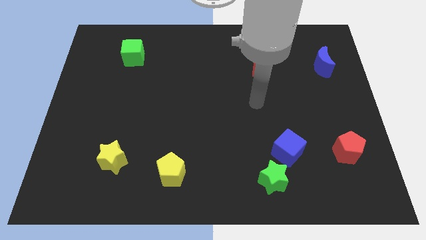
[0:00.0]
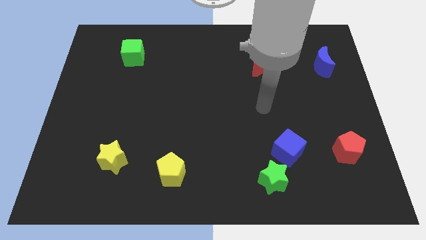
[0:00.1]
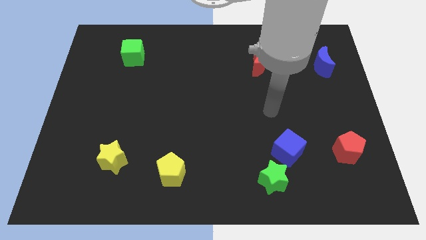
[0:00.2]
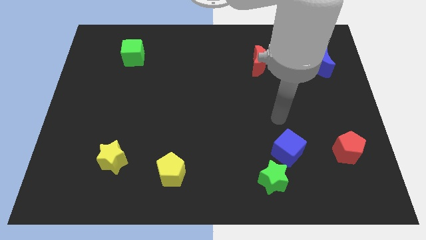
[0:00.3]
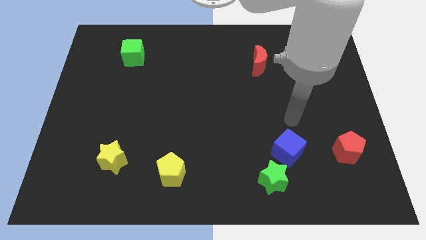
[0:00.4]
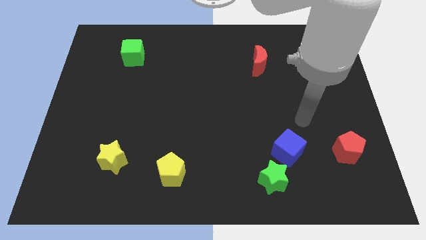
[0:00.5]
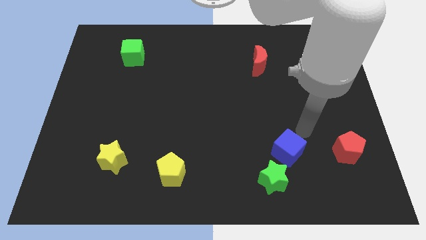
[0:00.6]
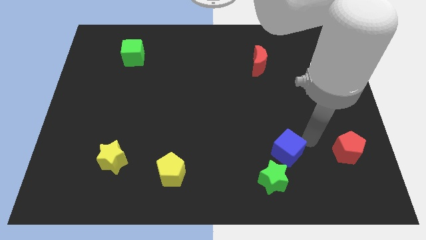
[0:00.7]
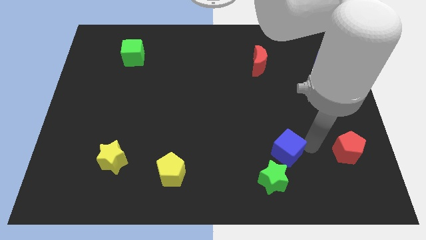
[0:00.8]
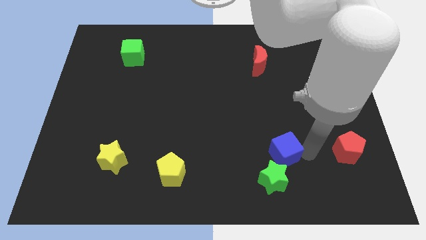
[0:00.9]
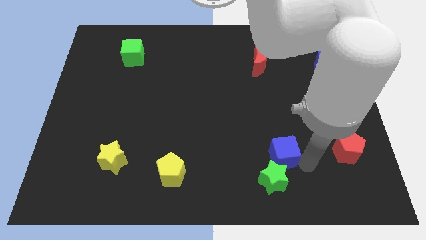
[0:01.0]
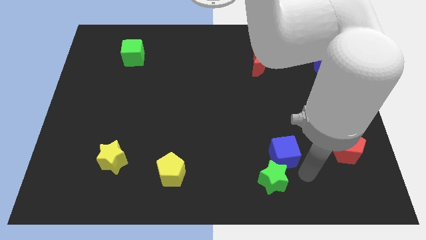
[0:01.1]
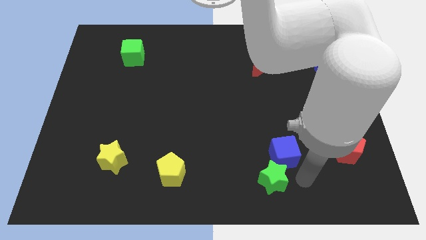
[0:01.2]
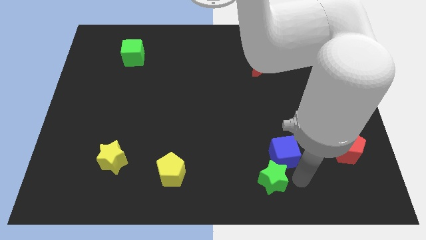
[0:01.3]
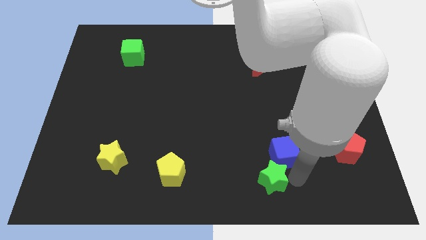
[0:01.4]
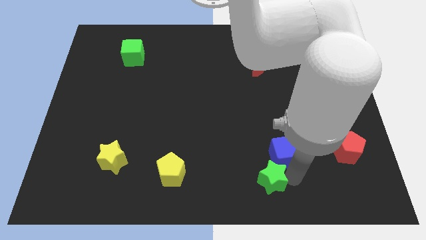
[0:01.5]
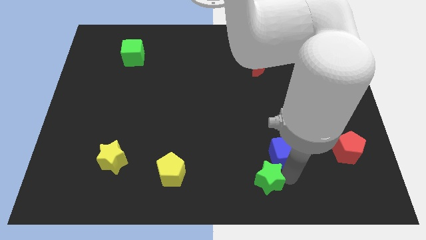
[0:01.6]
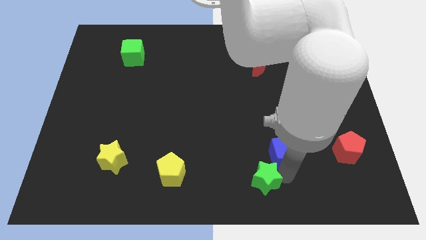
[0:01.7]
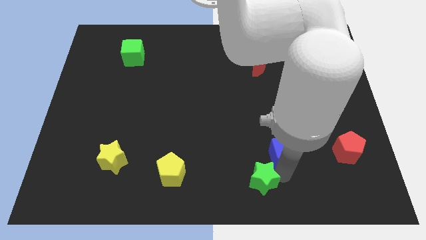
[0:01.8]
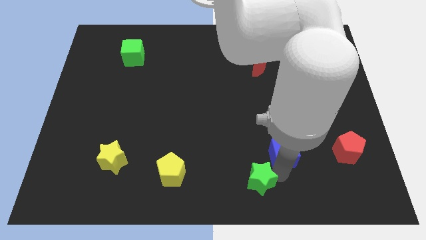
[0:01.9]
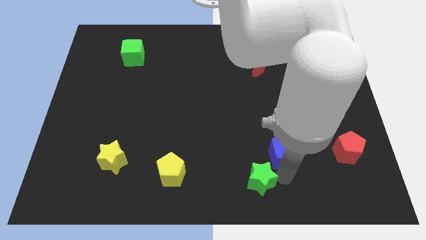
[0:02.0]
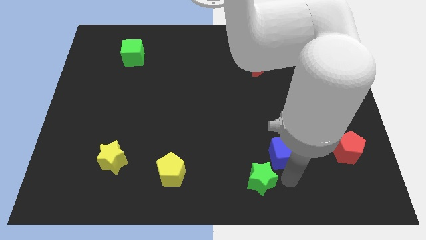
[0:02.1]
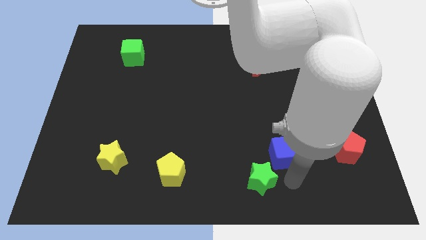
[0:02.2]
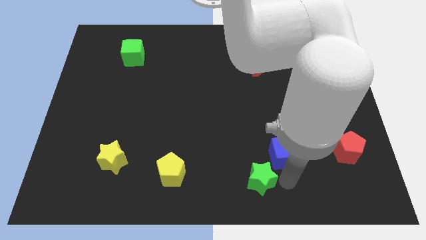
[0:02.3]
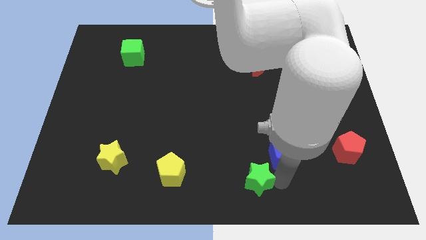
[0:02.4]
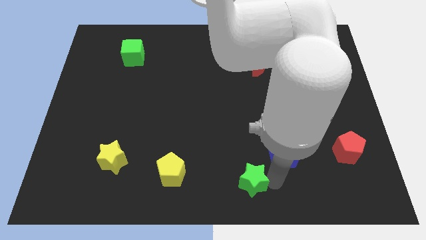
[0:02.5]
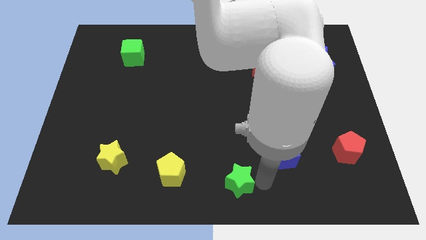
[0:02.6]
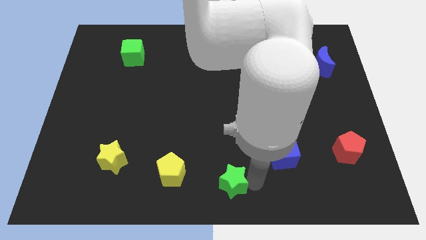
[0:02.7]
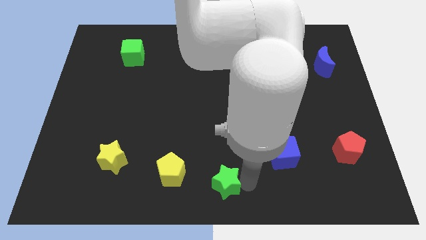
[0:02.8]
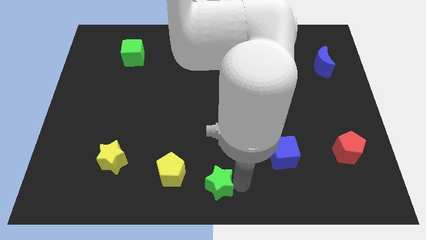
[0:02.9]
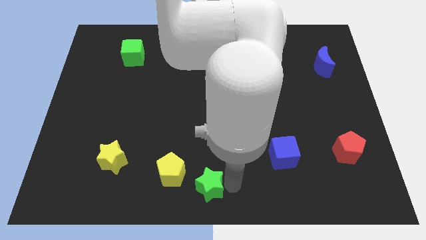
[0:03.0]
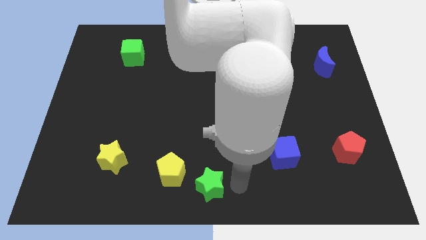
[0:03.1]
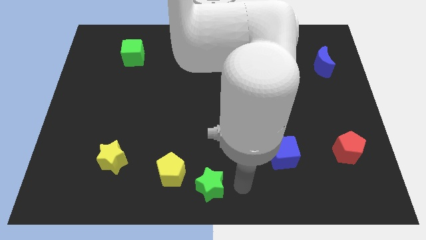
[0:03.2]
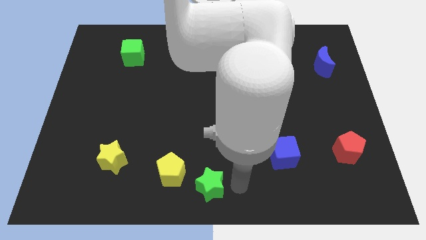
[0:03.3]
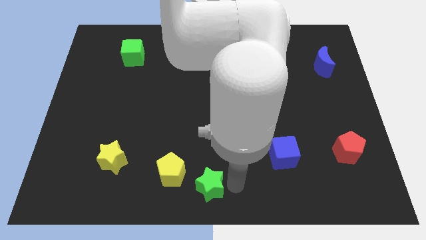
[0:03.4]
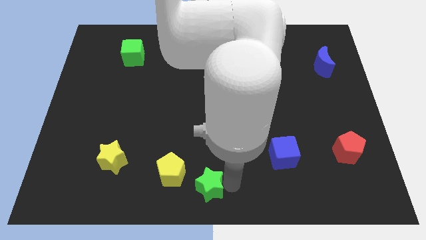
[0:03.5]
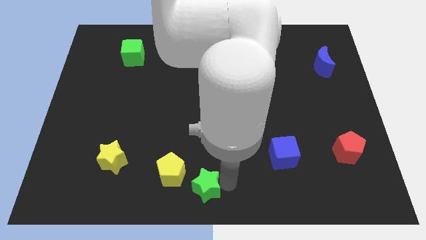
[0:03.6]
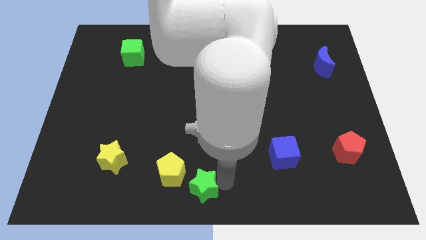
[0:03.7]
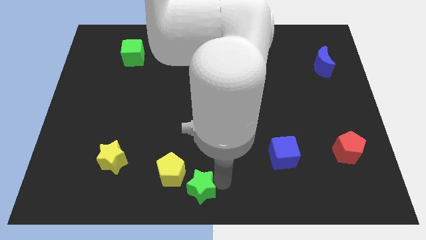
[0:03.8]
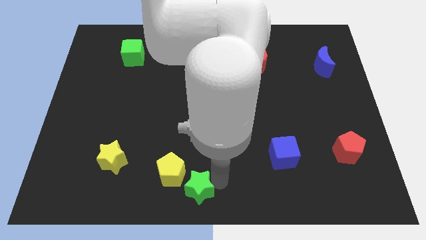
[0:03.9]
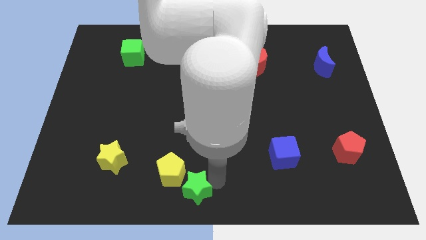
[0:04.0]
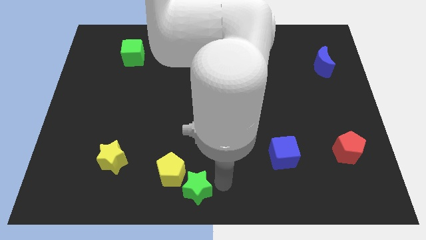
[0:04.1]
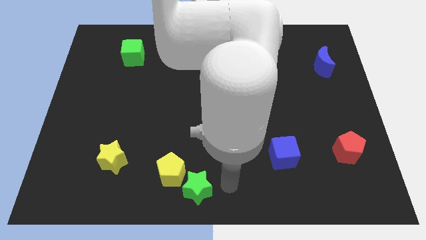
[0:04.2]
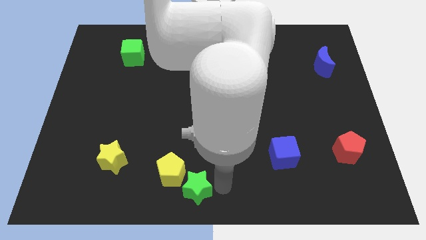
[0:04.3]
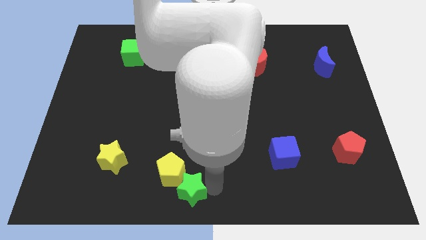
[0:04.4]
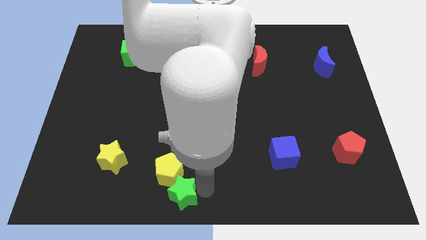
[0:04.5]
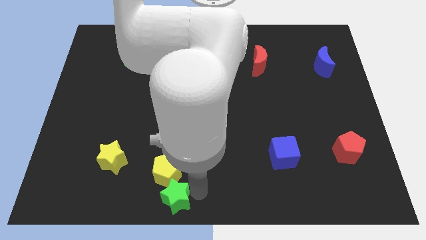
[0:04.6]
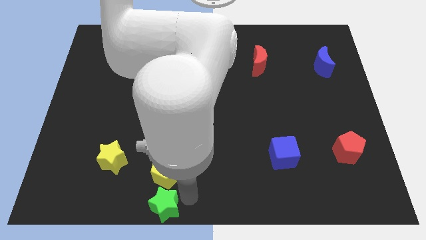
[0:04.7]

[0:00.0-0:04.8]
slide the green star to the left

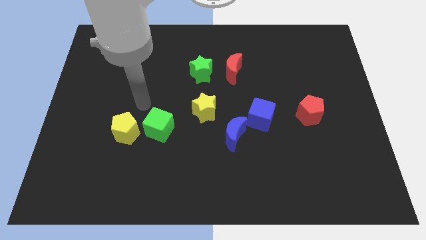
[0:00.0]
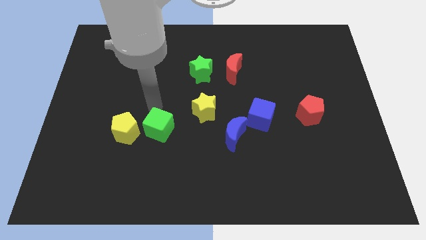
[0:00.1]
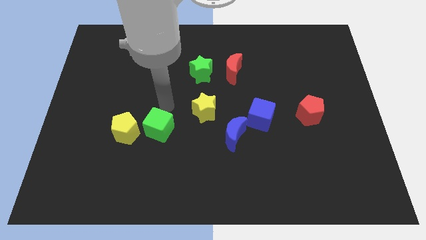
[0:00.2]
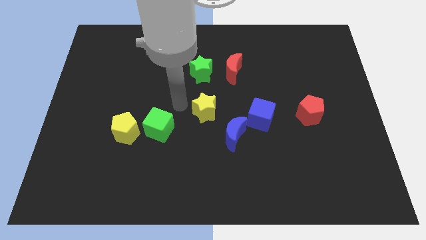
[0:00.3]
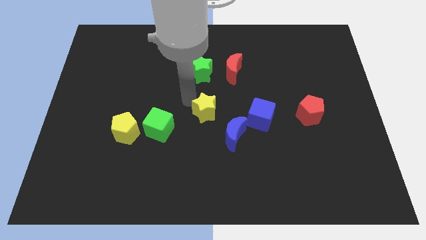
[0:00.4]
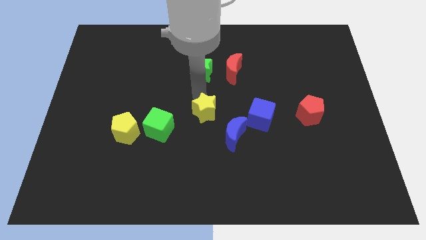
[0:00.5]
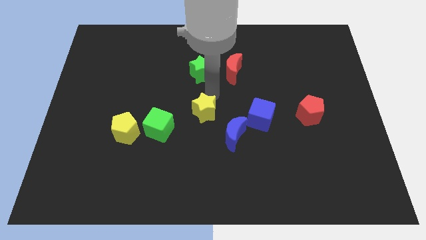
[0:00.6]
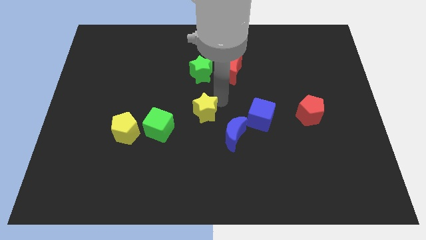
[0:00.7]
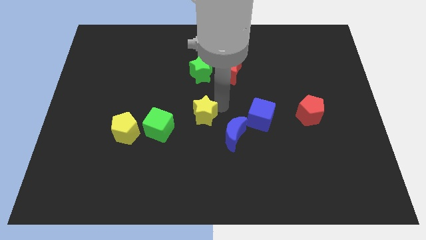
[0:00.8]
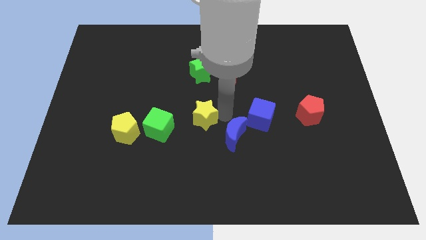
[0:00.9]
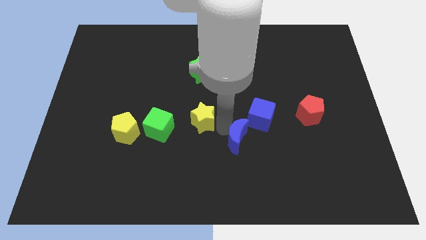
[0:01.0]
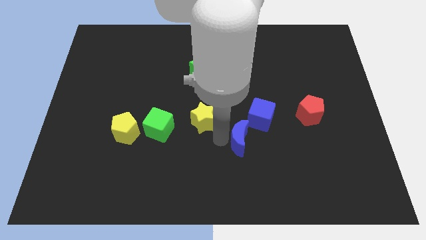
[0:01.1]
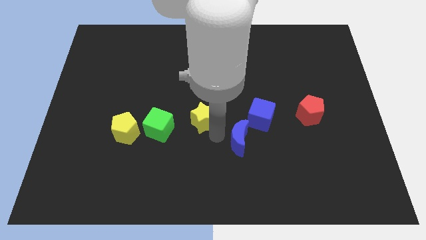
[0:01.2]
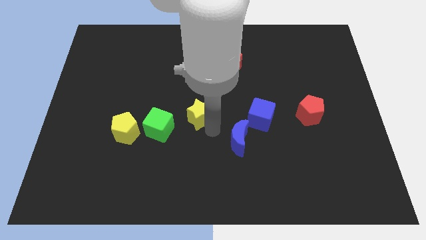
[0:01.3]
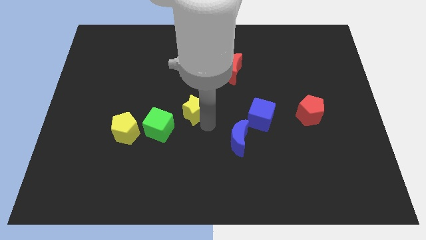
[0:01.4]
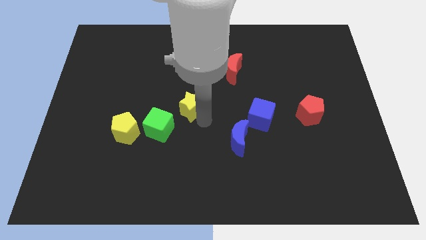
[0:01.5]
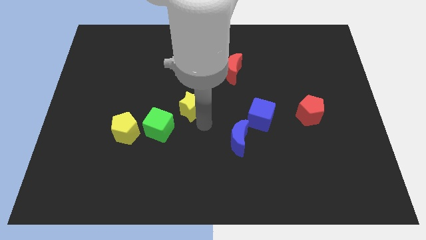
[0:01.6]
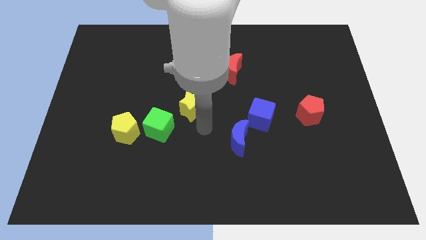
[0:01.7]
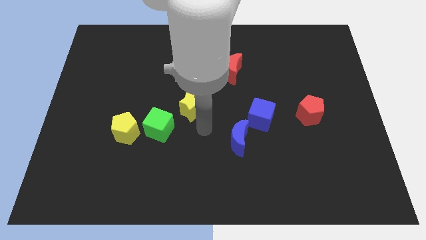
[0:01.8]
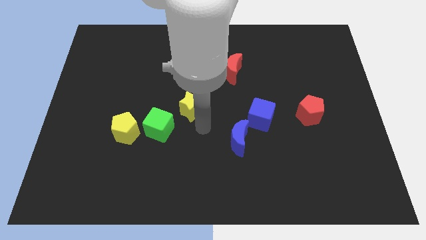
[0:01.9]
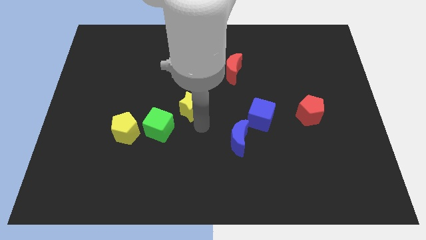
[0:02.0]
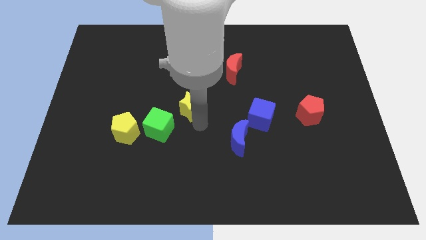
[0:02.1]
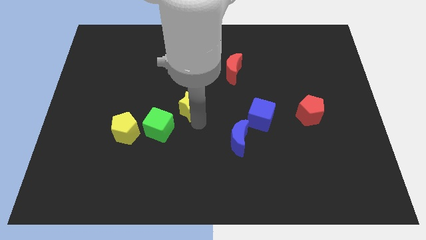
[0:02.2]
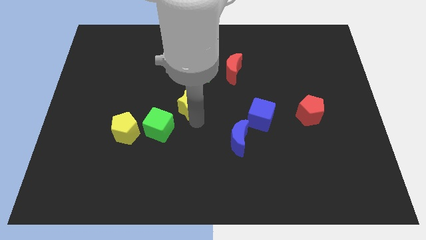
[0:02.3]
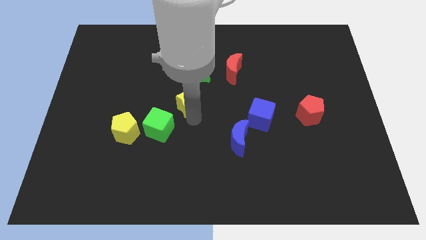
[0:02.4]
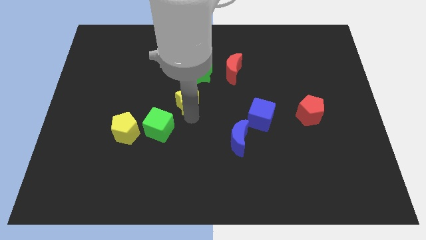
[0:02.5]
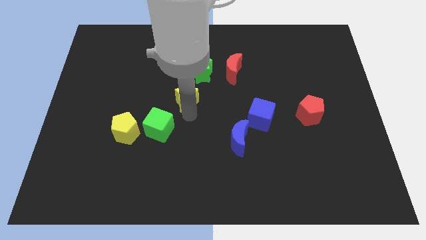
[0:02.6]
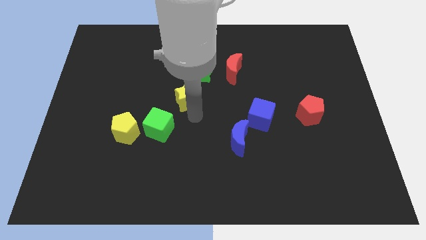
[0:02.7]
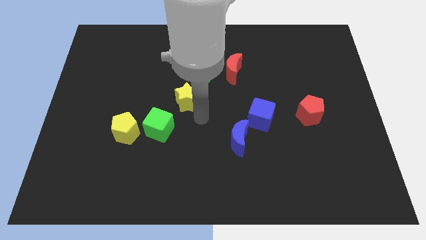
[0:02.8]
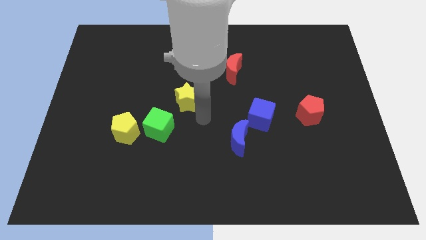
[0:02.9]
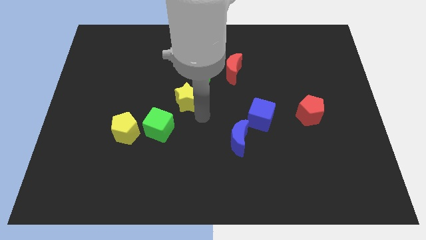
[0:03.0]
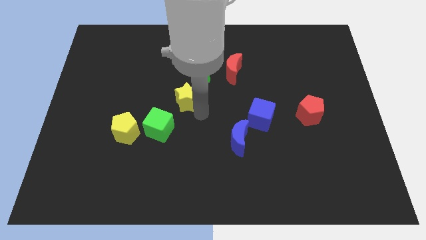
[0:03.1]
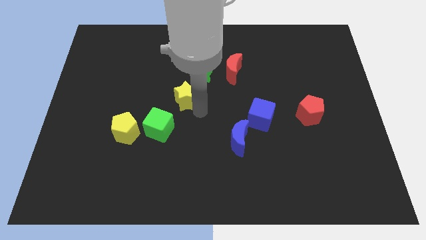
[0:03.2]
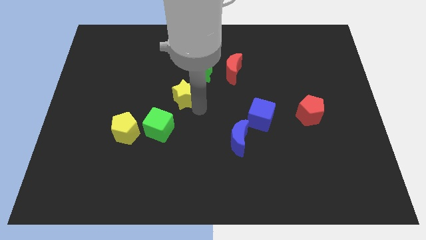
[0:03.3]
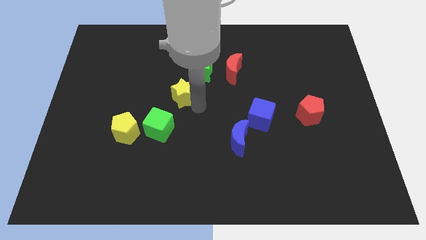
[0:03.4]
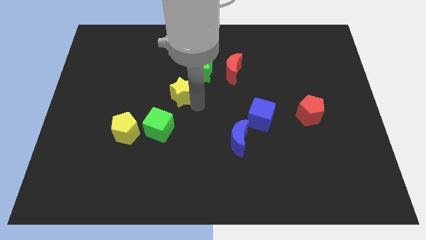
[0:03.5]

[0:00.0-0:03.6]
slightly move the yellow star upwards and to the left diagonally
